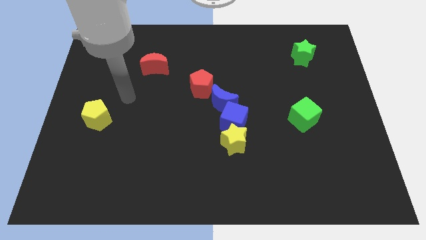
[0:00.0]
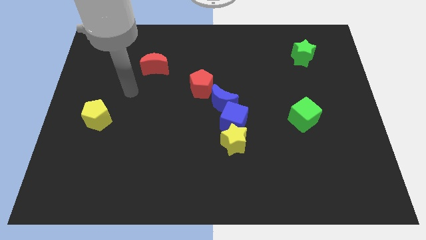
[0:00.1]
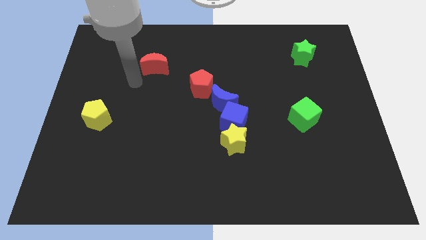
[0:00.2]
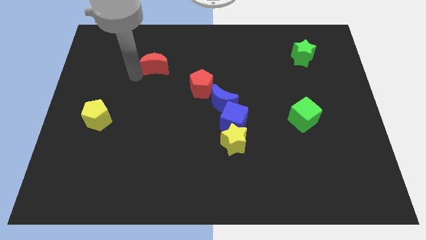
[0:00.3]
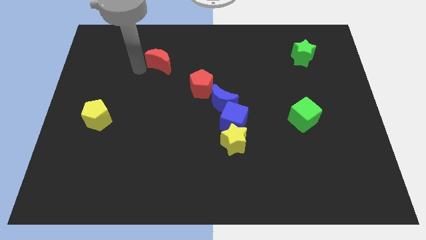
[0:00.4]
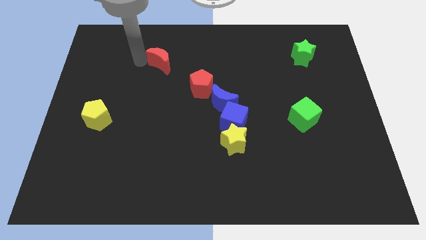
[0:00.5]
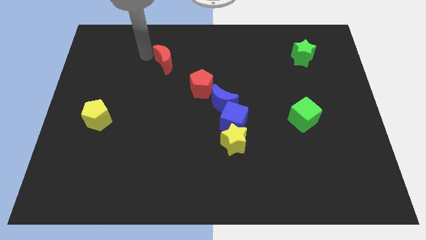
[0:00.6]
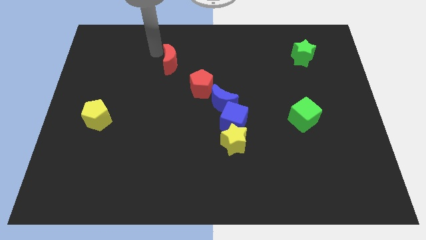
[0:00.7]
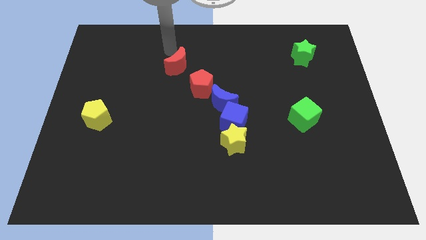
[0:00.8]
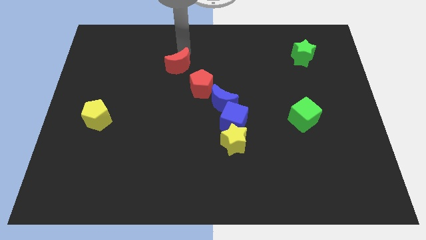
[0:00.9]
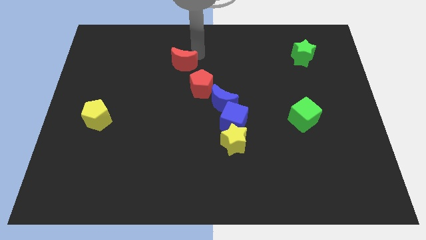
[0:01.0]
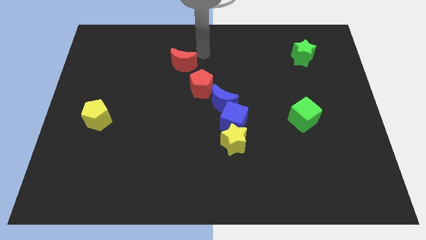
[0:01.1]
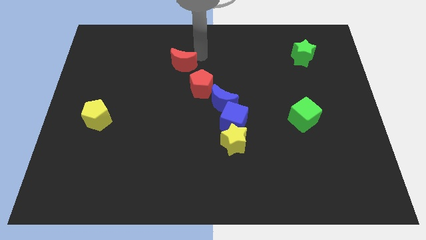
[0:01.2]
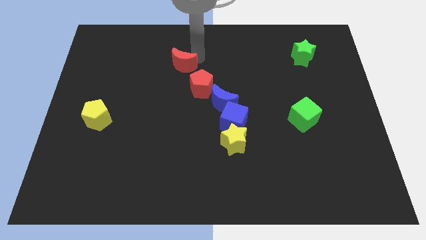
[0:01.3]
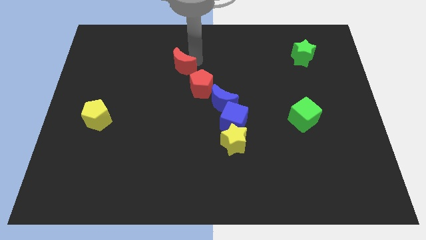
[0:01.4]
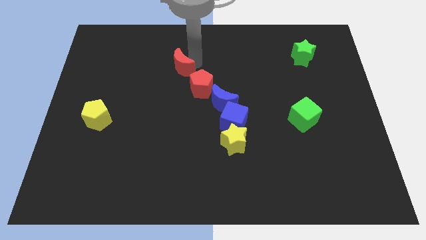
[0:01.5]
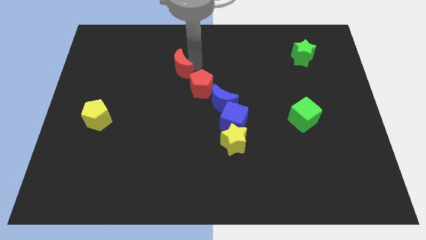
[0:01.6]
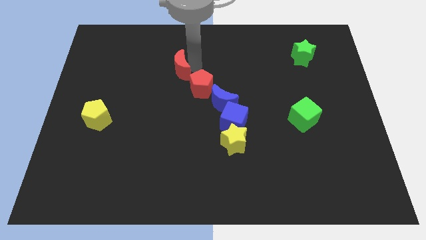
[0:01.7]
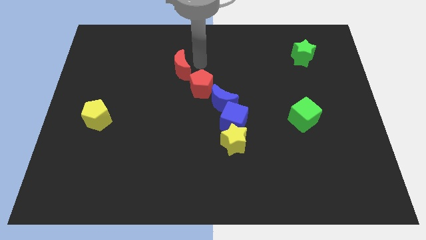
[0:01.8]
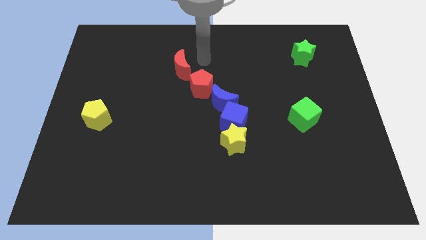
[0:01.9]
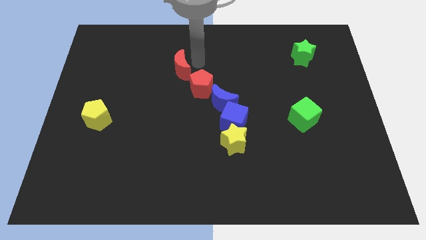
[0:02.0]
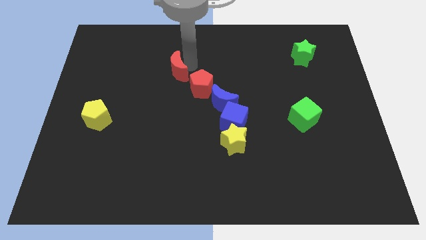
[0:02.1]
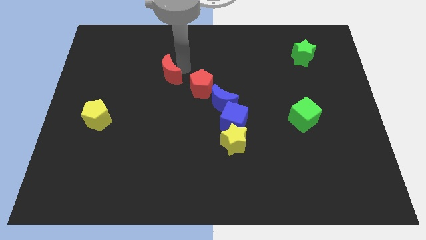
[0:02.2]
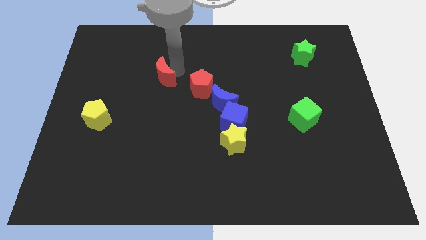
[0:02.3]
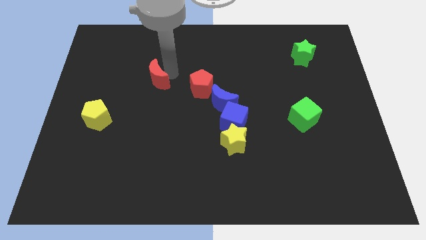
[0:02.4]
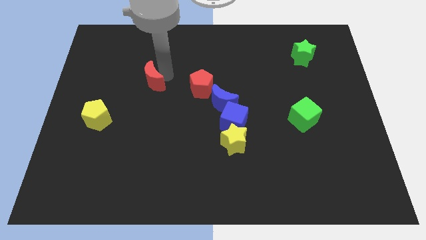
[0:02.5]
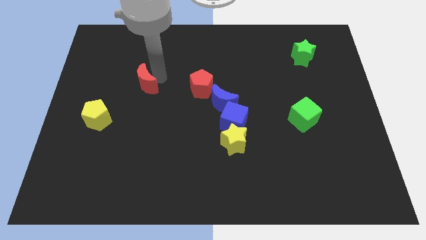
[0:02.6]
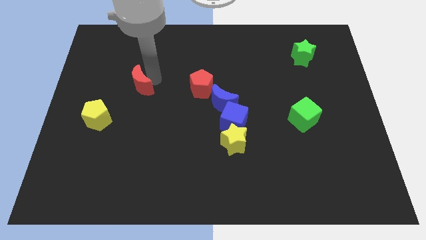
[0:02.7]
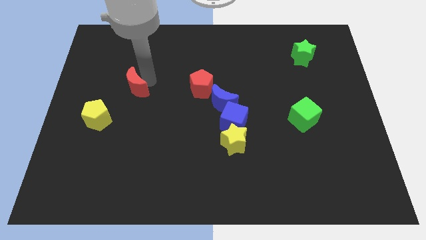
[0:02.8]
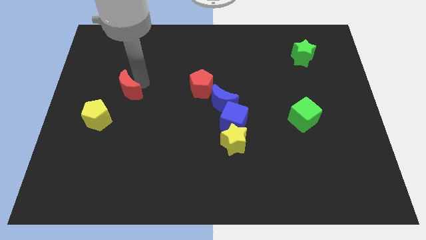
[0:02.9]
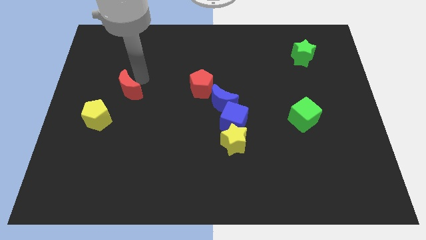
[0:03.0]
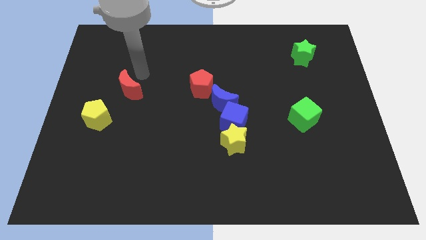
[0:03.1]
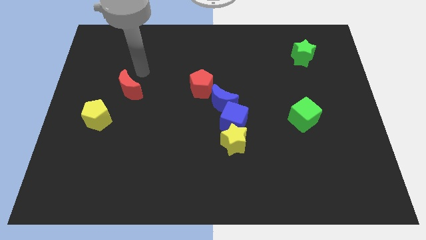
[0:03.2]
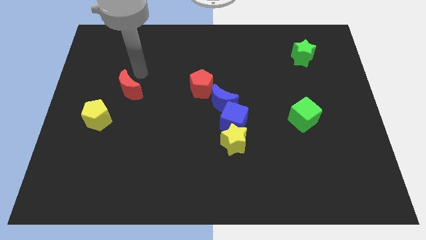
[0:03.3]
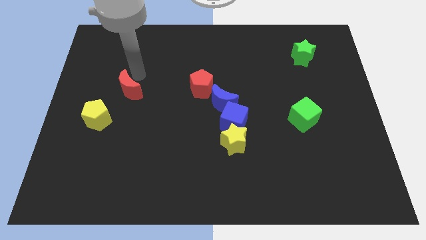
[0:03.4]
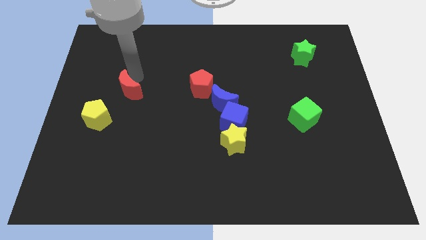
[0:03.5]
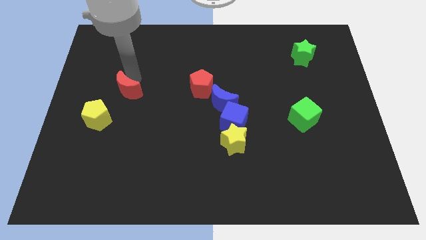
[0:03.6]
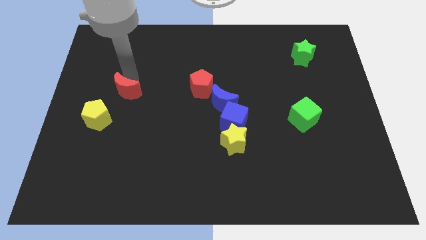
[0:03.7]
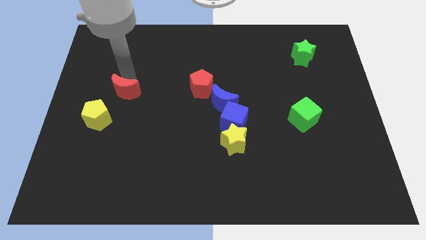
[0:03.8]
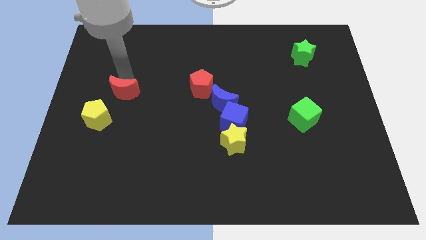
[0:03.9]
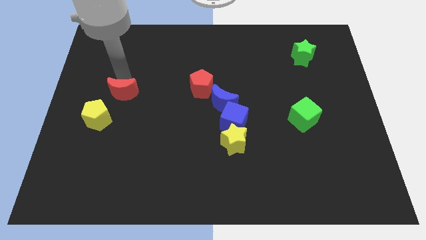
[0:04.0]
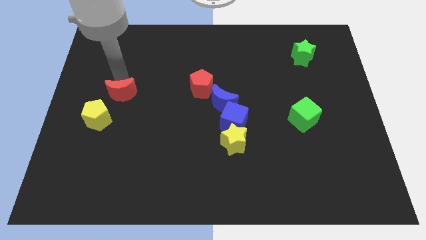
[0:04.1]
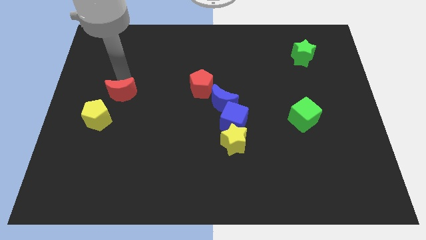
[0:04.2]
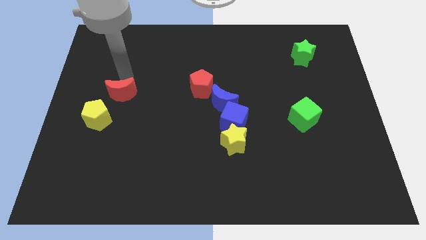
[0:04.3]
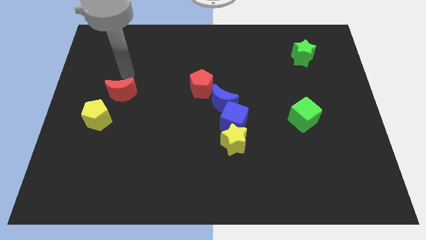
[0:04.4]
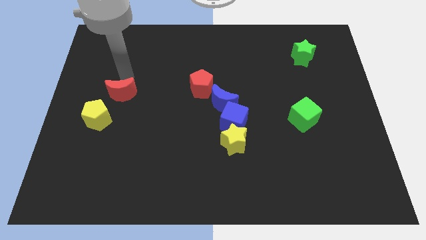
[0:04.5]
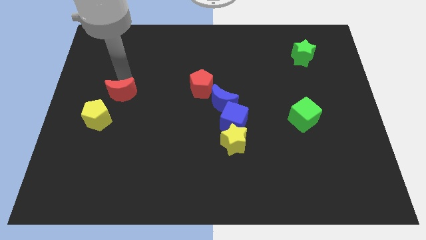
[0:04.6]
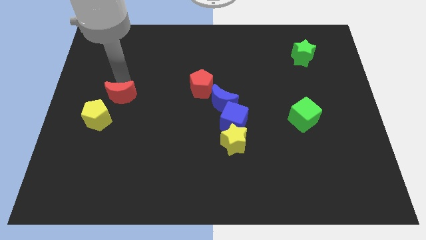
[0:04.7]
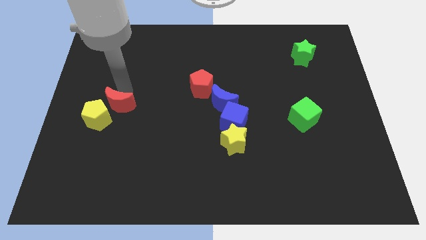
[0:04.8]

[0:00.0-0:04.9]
put the red moon to the yellow pentagon

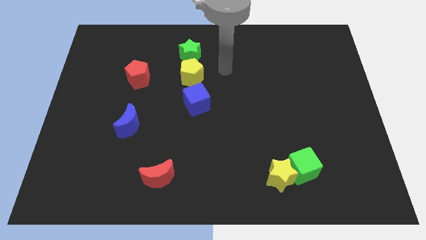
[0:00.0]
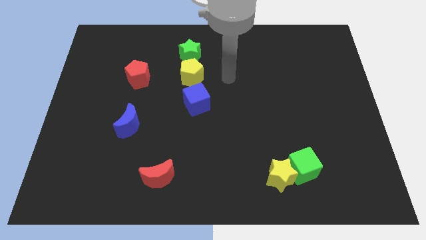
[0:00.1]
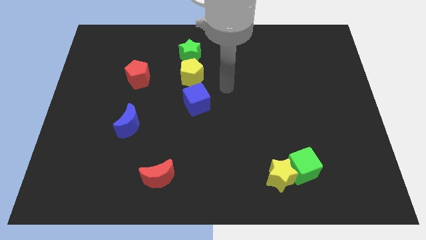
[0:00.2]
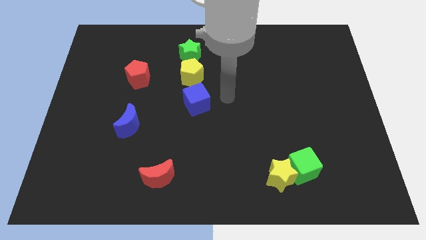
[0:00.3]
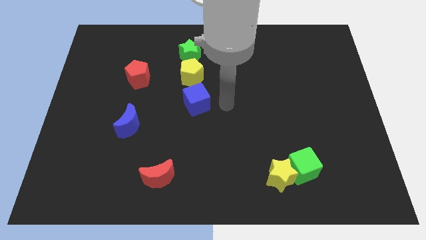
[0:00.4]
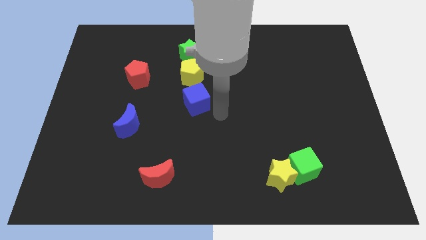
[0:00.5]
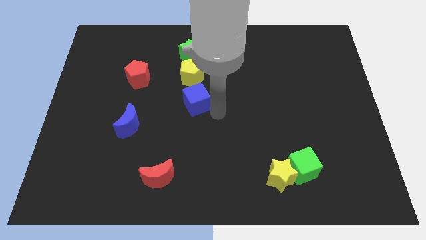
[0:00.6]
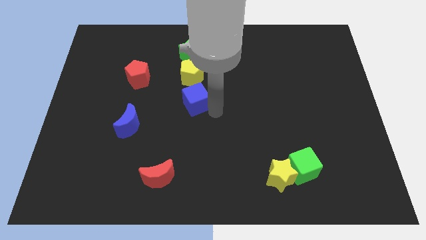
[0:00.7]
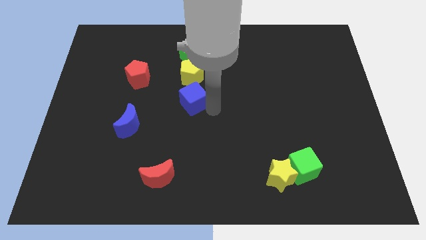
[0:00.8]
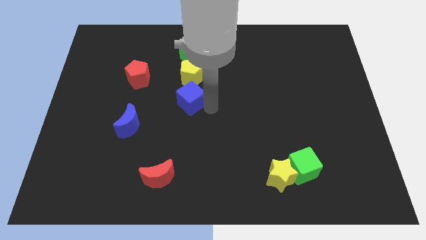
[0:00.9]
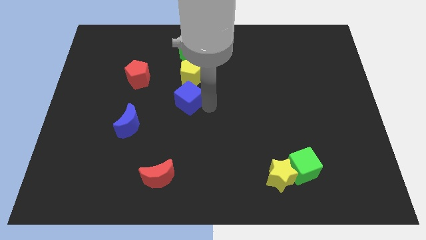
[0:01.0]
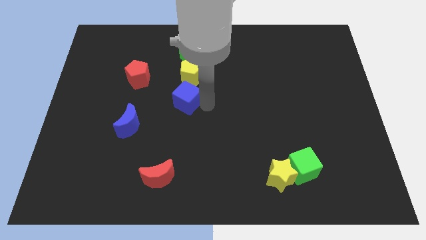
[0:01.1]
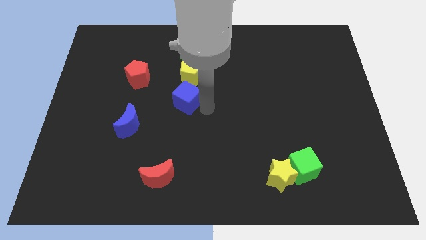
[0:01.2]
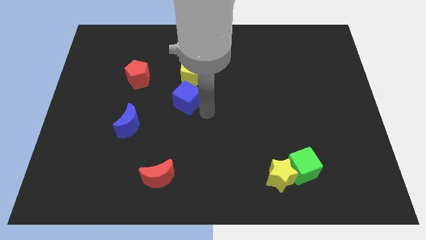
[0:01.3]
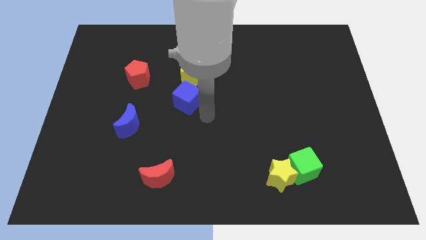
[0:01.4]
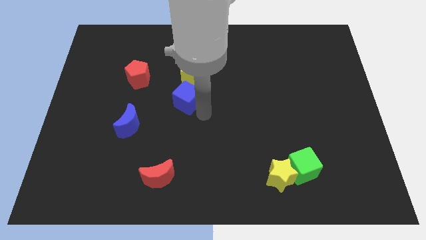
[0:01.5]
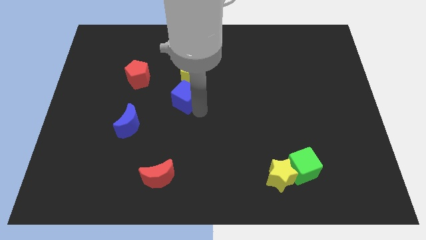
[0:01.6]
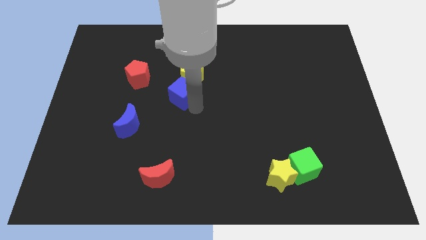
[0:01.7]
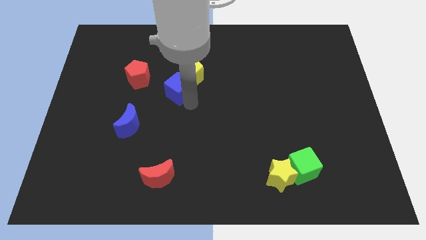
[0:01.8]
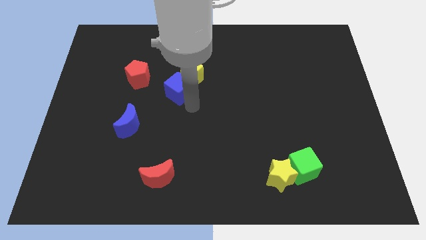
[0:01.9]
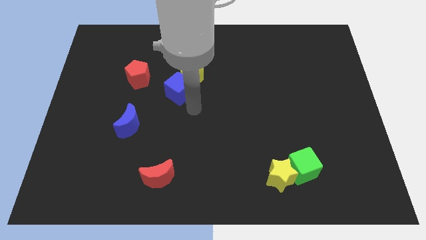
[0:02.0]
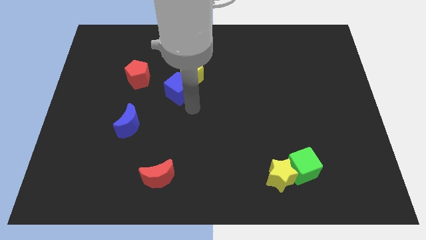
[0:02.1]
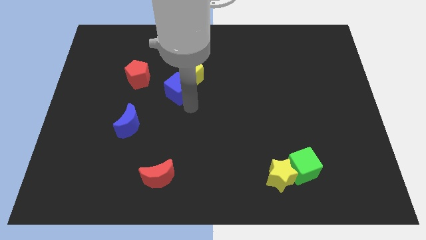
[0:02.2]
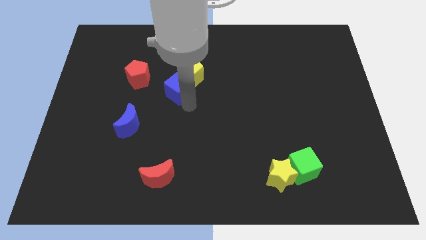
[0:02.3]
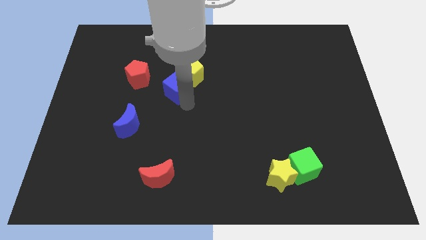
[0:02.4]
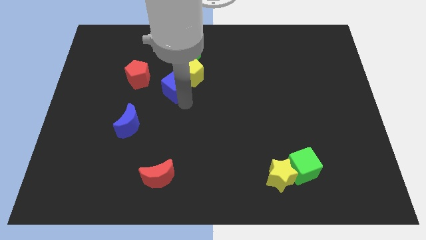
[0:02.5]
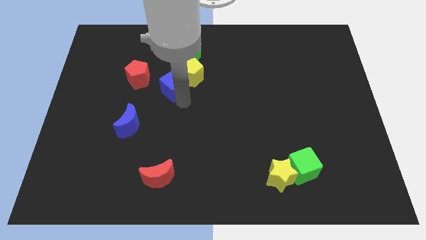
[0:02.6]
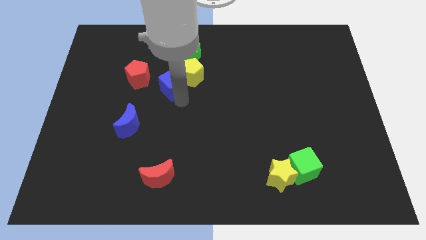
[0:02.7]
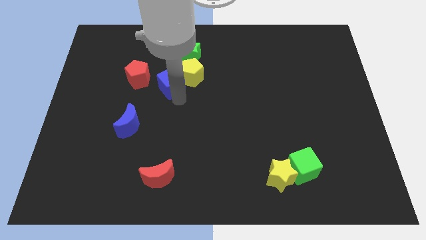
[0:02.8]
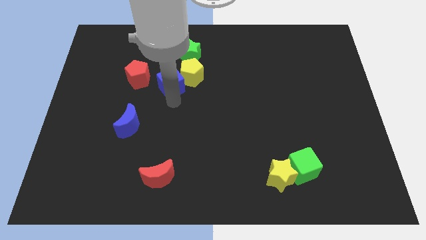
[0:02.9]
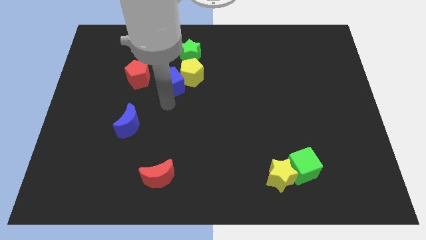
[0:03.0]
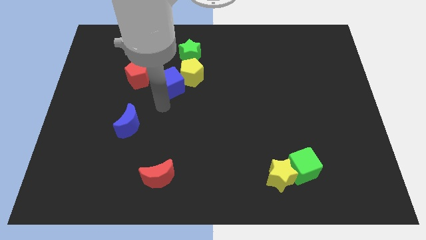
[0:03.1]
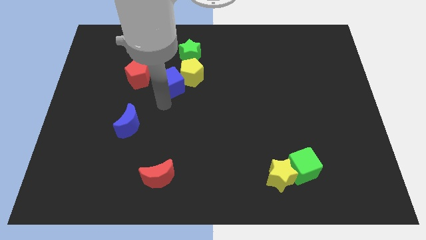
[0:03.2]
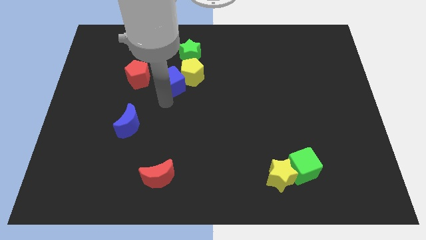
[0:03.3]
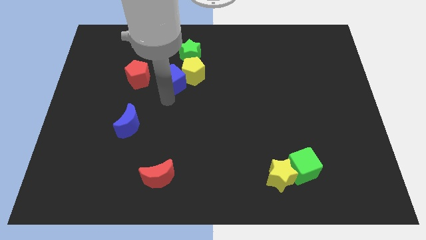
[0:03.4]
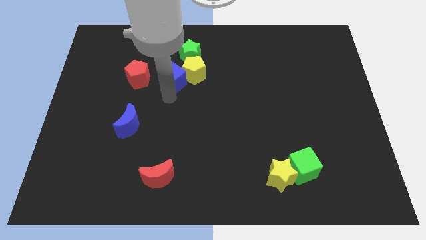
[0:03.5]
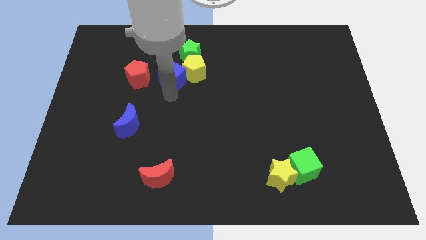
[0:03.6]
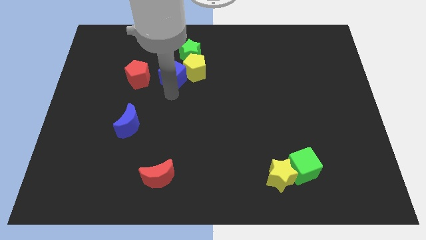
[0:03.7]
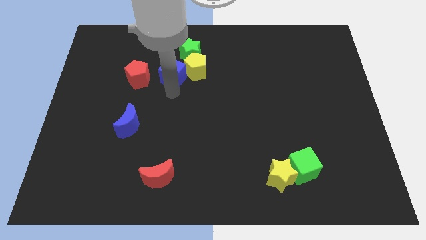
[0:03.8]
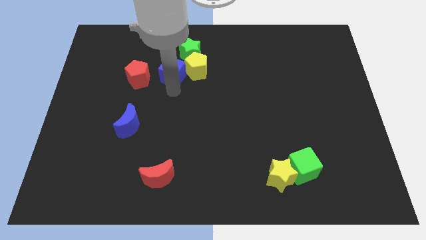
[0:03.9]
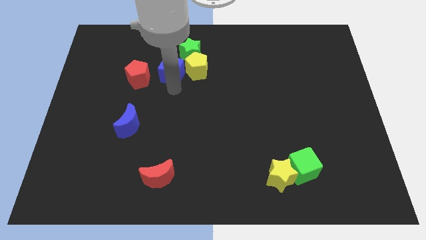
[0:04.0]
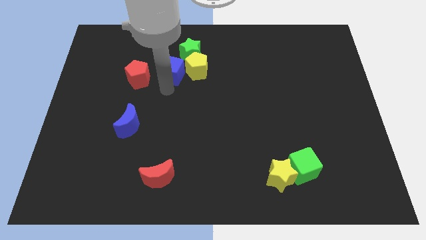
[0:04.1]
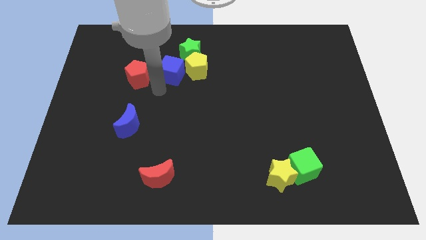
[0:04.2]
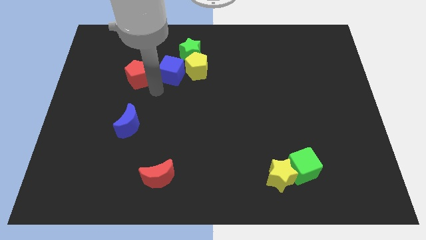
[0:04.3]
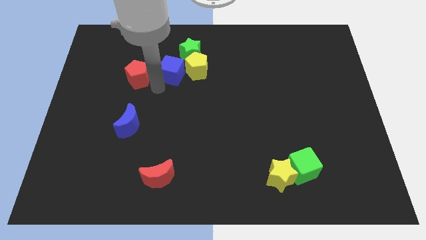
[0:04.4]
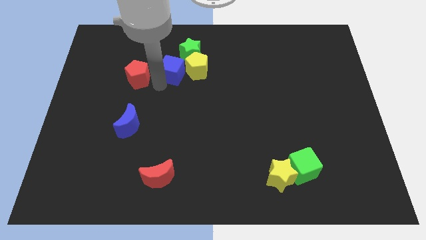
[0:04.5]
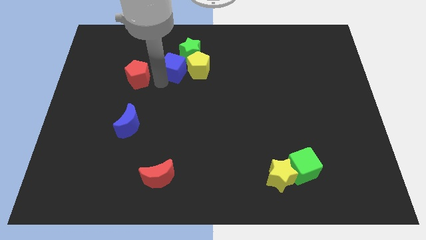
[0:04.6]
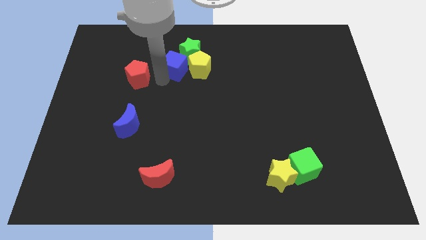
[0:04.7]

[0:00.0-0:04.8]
push the blue cube next to the green star
